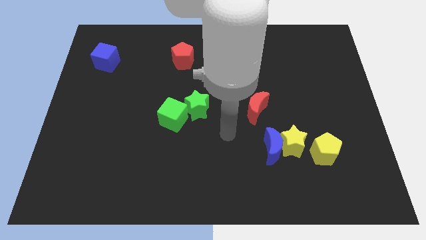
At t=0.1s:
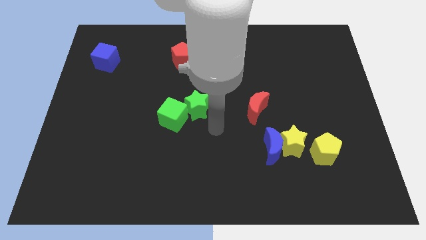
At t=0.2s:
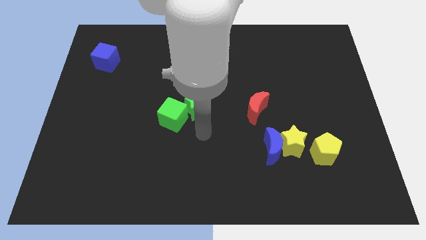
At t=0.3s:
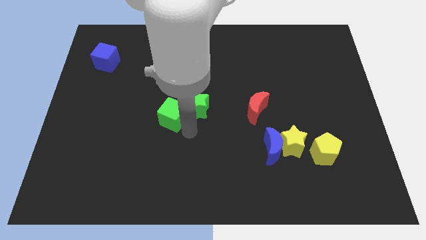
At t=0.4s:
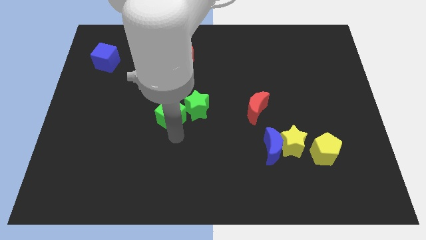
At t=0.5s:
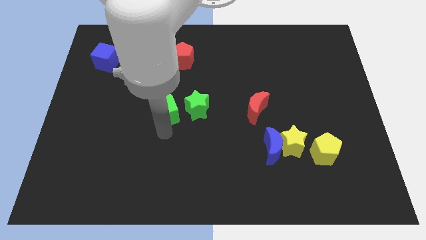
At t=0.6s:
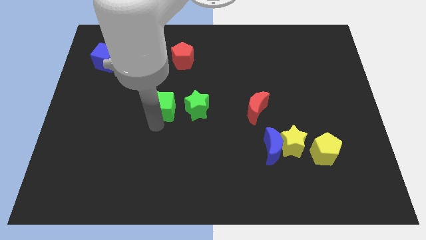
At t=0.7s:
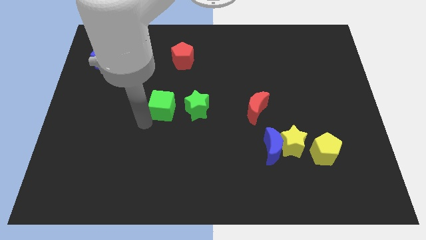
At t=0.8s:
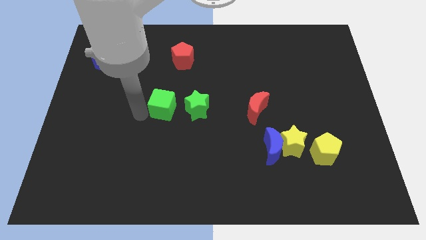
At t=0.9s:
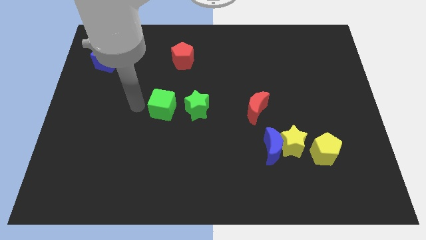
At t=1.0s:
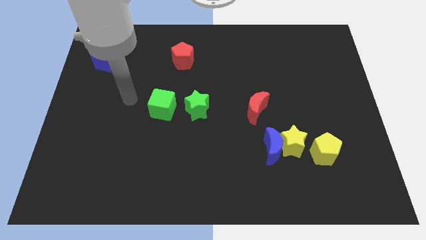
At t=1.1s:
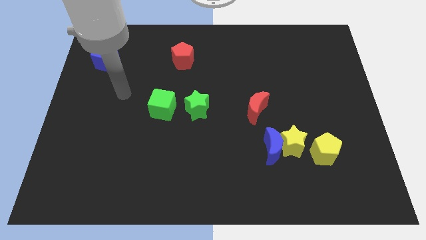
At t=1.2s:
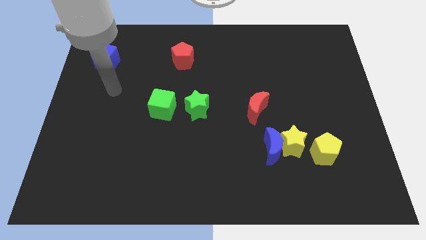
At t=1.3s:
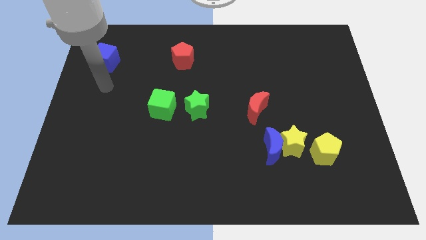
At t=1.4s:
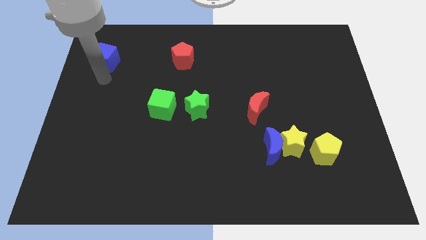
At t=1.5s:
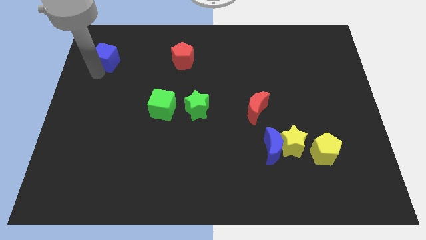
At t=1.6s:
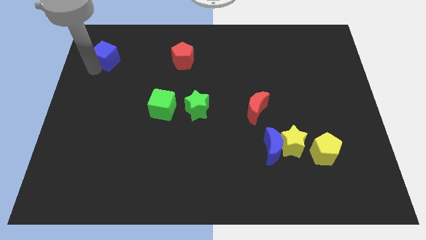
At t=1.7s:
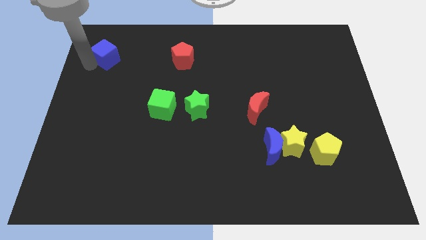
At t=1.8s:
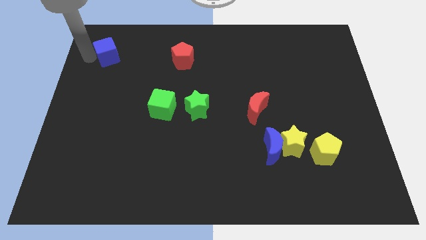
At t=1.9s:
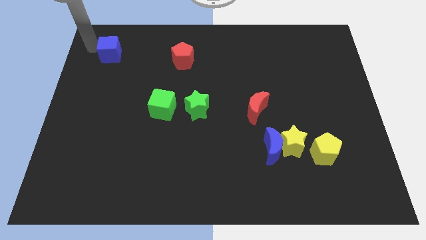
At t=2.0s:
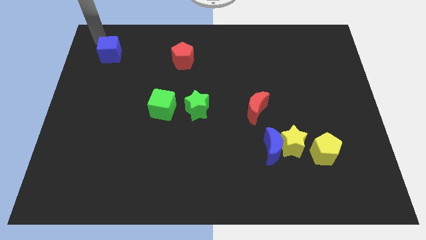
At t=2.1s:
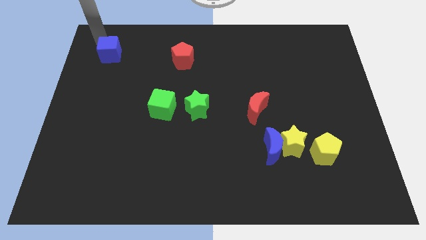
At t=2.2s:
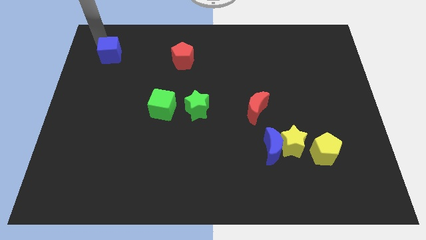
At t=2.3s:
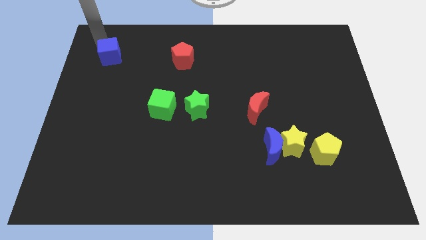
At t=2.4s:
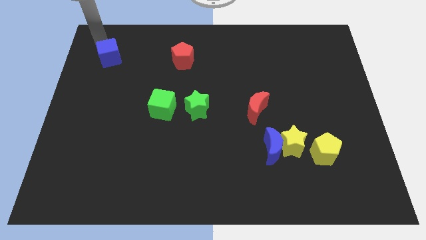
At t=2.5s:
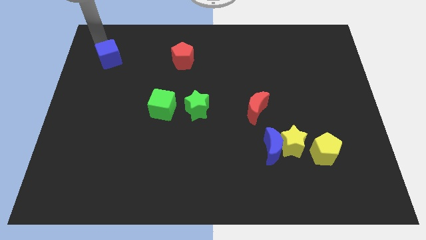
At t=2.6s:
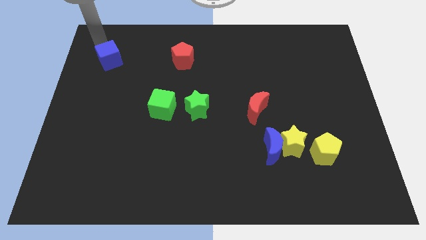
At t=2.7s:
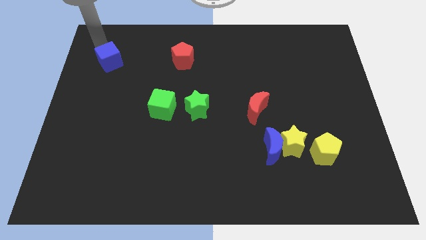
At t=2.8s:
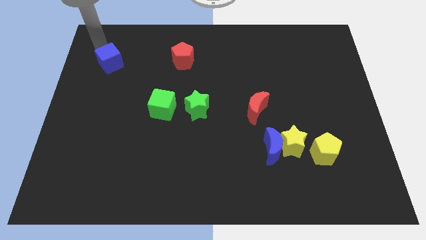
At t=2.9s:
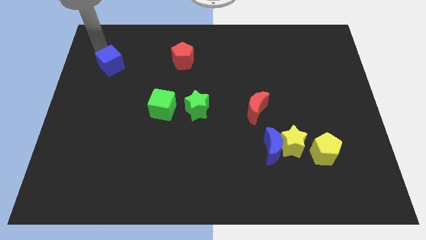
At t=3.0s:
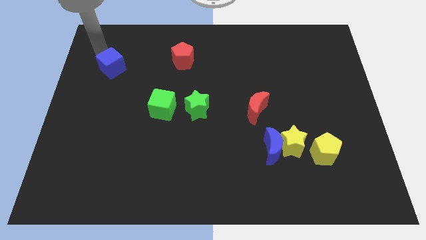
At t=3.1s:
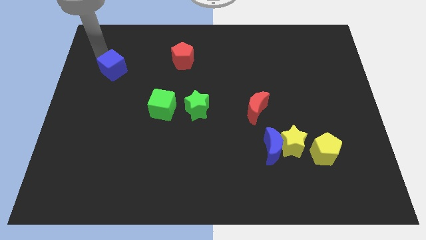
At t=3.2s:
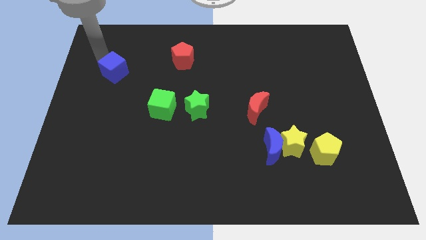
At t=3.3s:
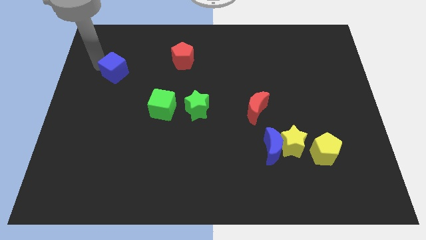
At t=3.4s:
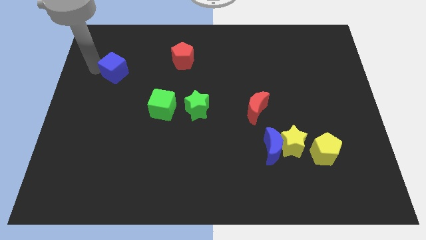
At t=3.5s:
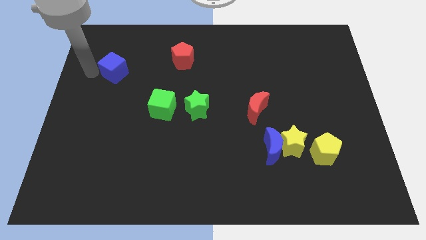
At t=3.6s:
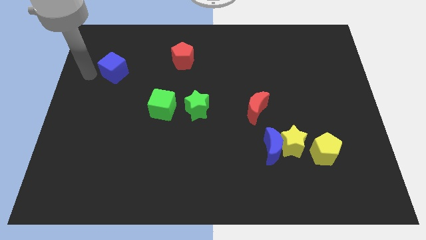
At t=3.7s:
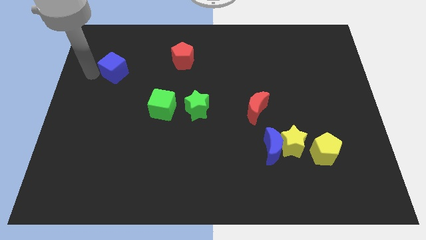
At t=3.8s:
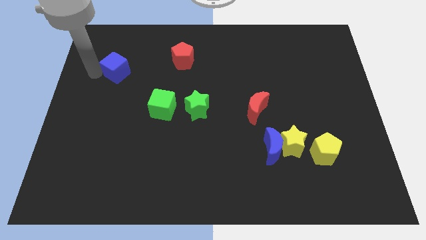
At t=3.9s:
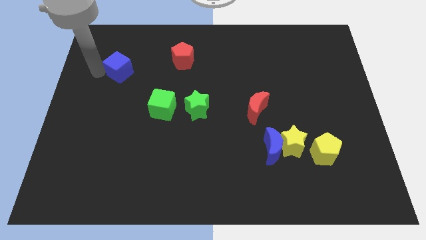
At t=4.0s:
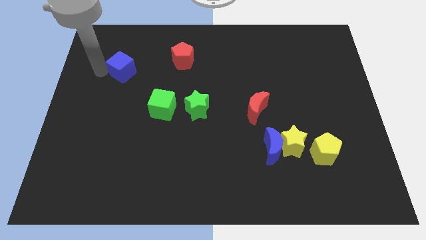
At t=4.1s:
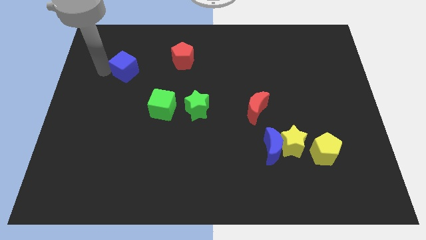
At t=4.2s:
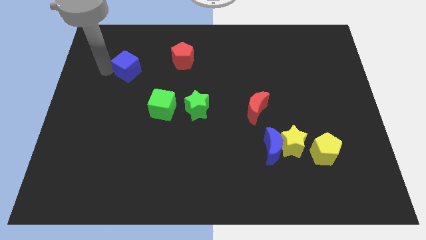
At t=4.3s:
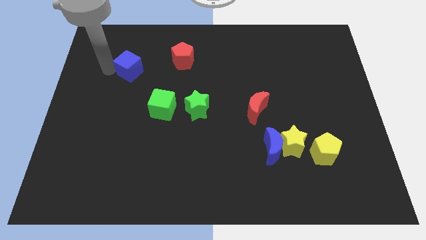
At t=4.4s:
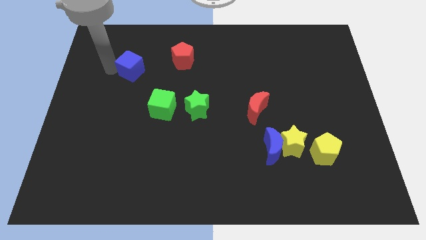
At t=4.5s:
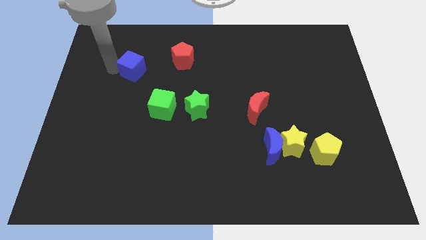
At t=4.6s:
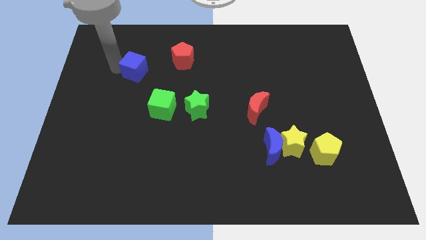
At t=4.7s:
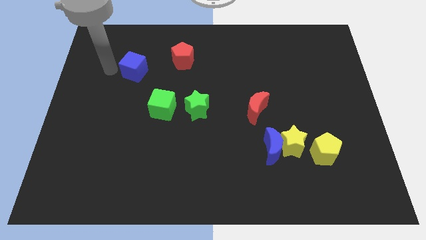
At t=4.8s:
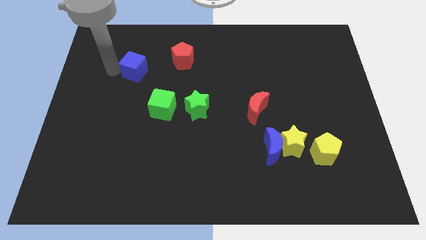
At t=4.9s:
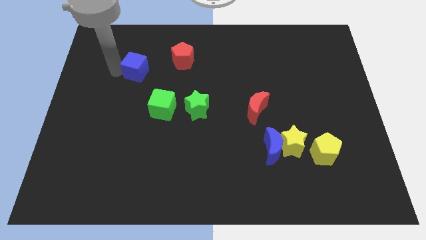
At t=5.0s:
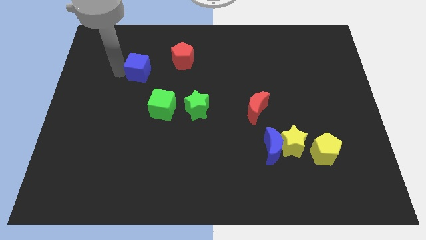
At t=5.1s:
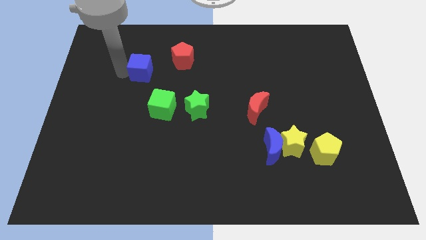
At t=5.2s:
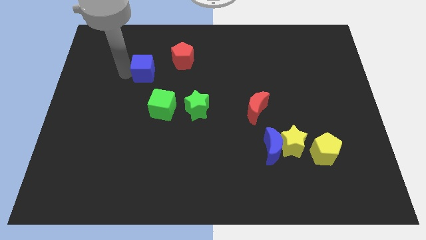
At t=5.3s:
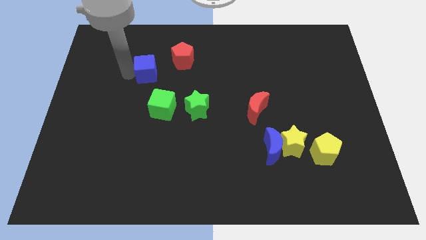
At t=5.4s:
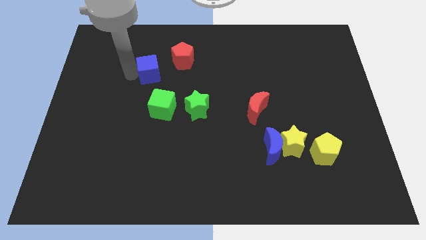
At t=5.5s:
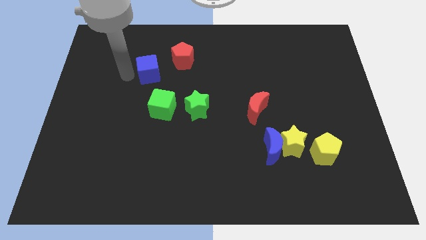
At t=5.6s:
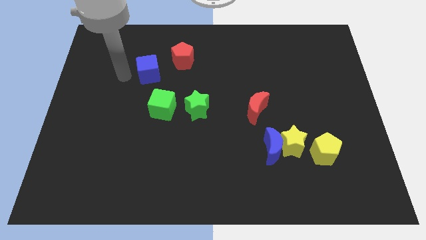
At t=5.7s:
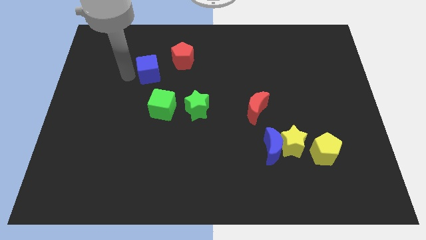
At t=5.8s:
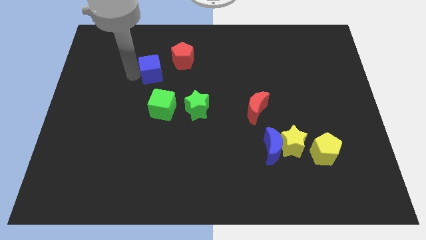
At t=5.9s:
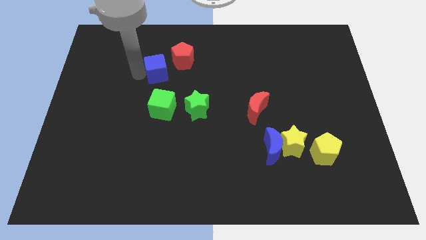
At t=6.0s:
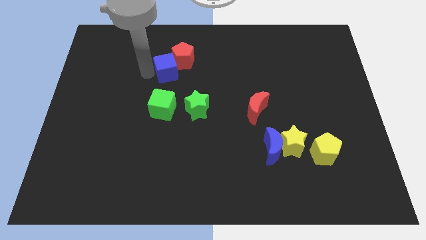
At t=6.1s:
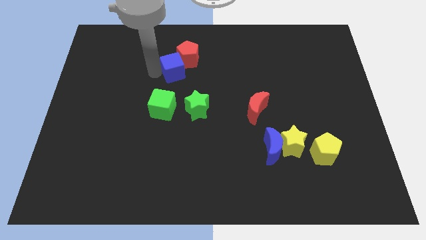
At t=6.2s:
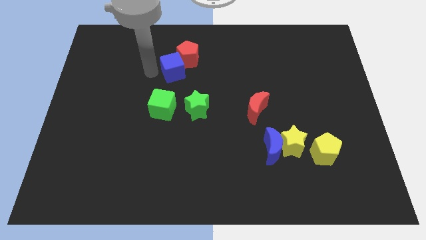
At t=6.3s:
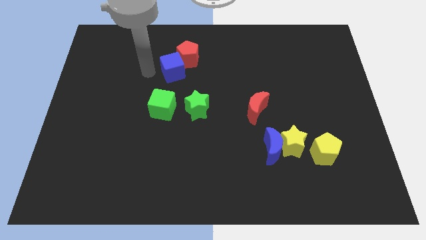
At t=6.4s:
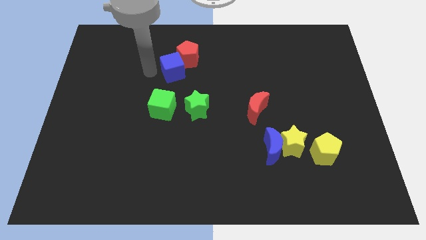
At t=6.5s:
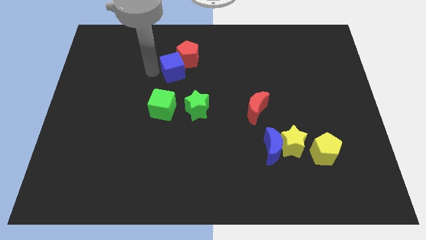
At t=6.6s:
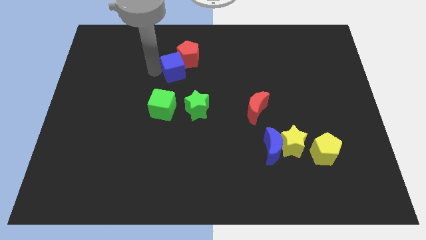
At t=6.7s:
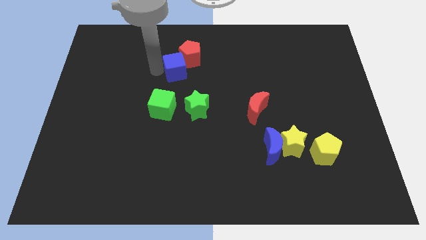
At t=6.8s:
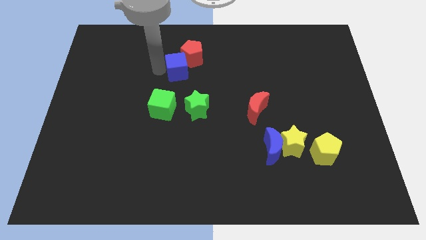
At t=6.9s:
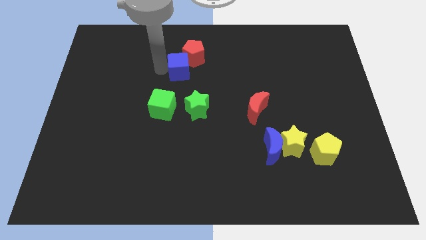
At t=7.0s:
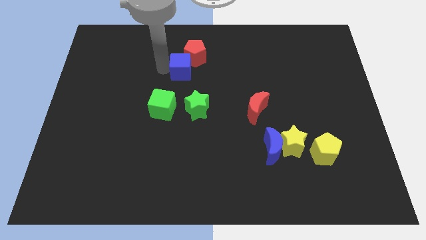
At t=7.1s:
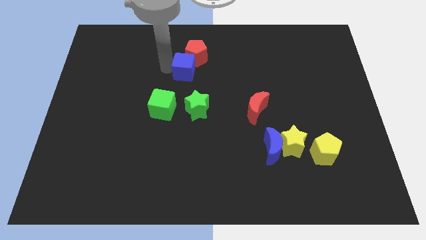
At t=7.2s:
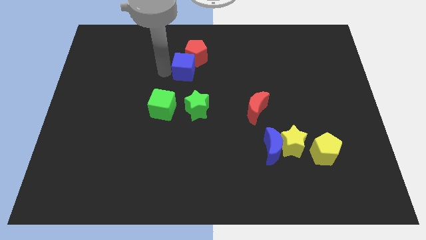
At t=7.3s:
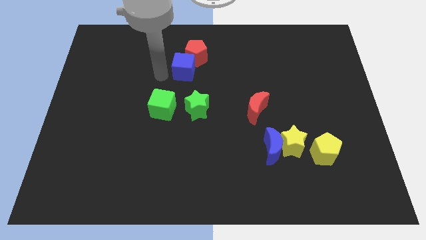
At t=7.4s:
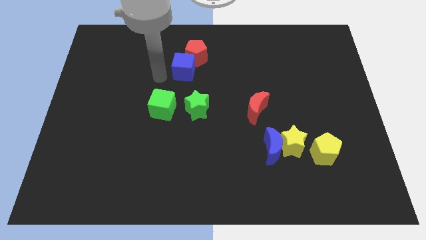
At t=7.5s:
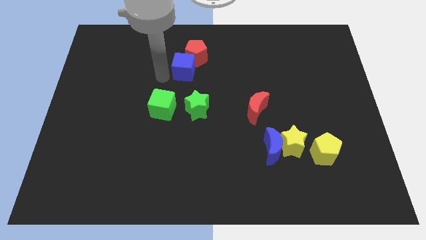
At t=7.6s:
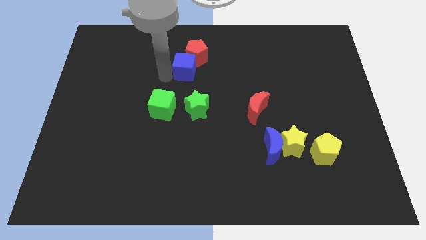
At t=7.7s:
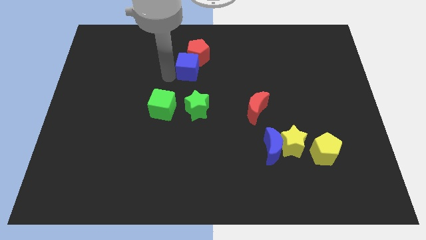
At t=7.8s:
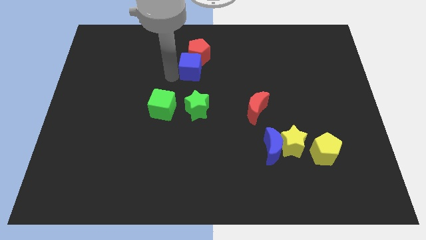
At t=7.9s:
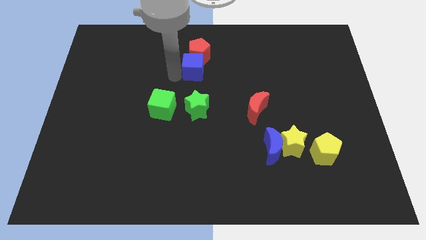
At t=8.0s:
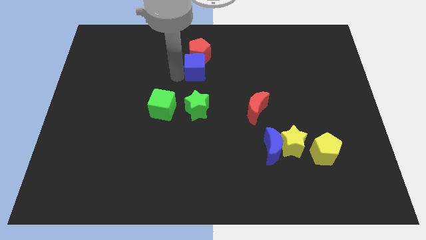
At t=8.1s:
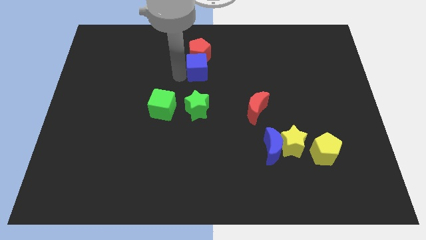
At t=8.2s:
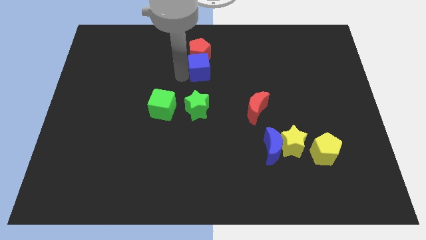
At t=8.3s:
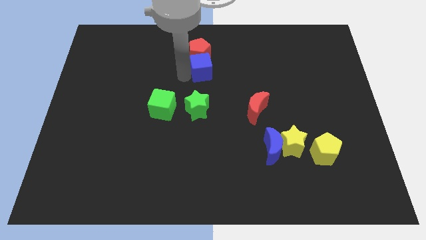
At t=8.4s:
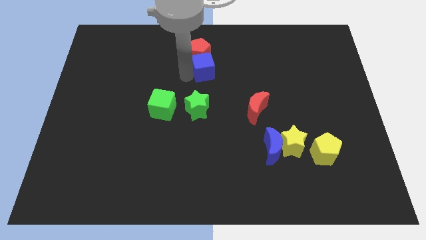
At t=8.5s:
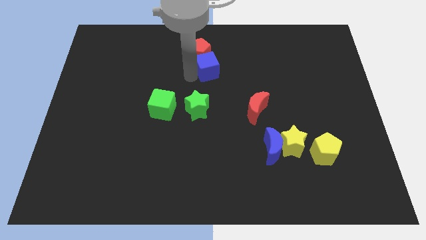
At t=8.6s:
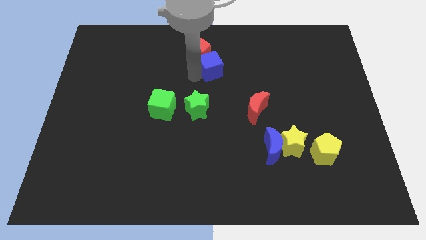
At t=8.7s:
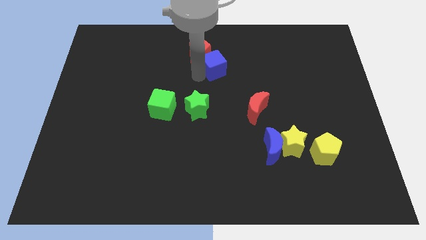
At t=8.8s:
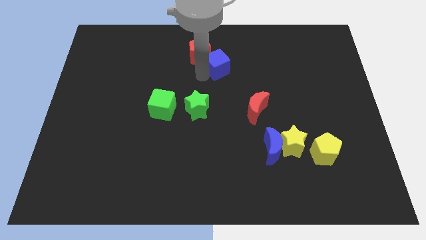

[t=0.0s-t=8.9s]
push the blue cube to the right side of the red pentagon
